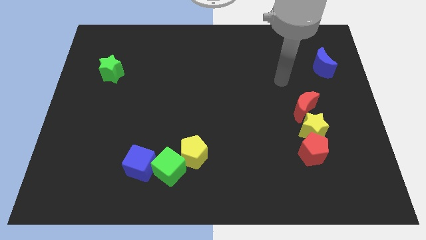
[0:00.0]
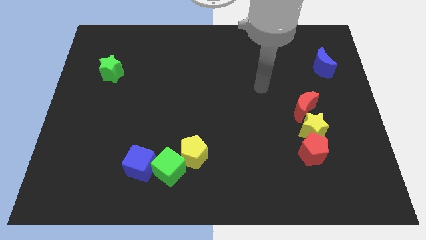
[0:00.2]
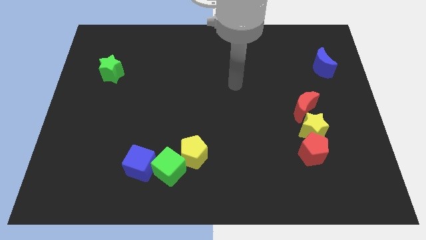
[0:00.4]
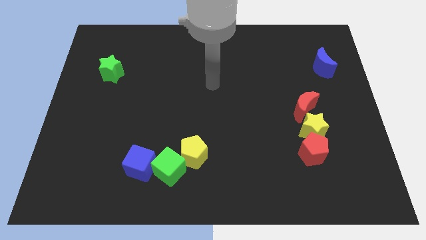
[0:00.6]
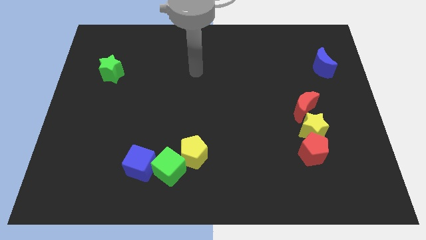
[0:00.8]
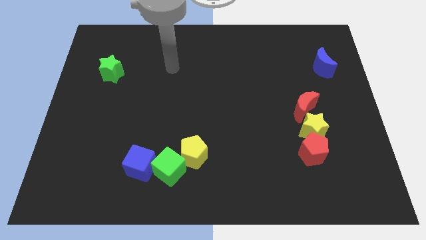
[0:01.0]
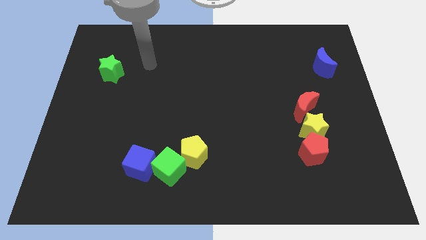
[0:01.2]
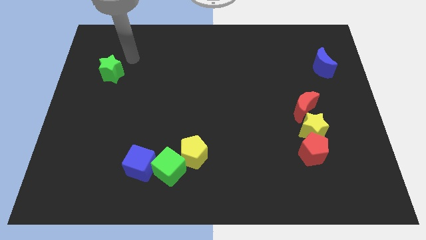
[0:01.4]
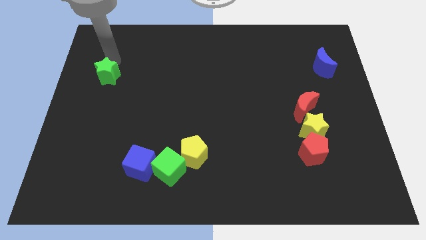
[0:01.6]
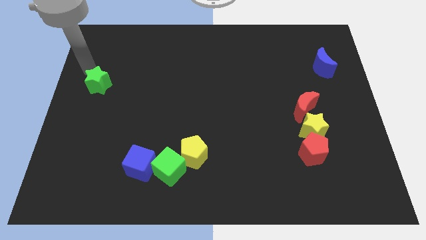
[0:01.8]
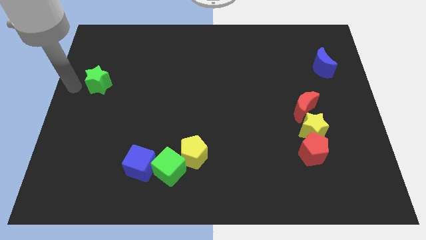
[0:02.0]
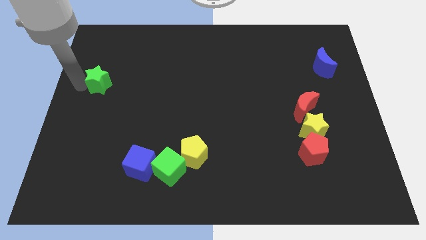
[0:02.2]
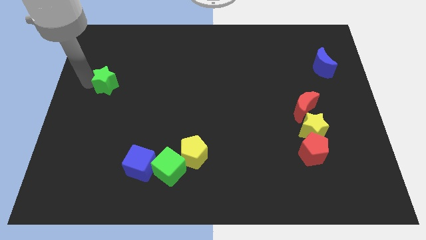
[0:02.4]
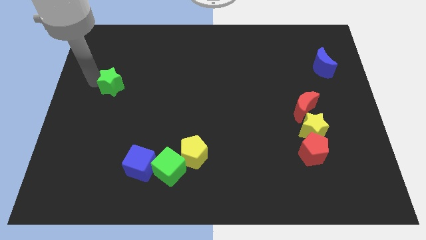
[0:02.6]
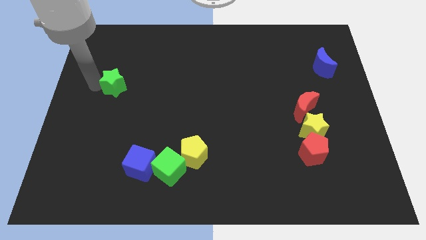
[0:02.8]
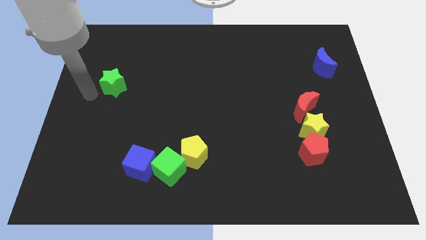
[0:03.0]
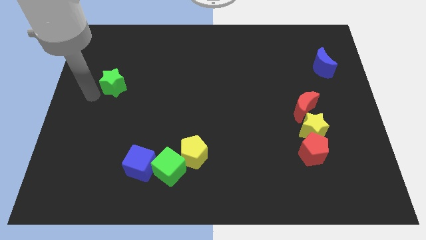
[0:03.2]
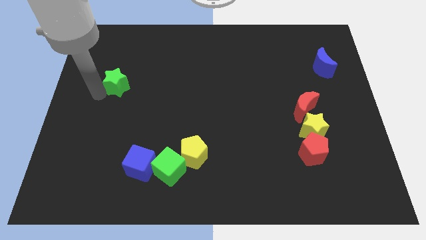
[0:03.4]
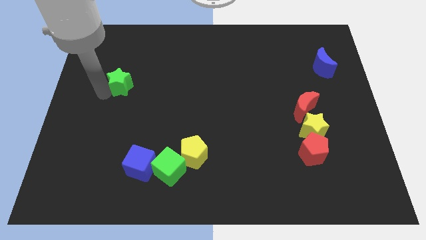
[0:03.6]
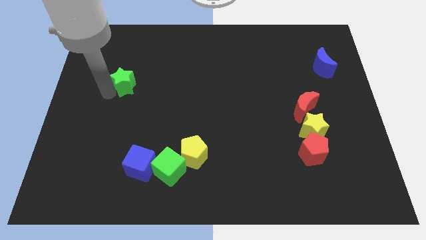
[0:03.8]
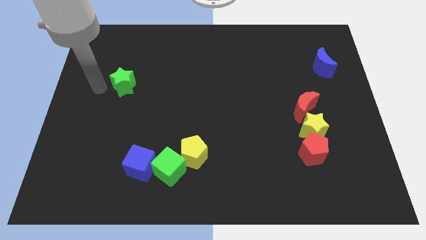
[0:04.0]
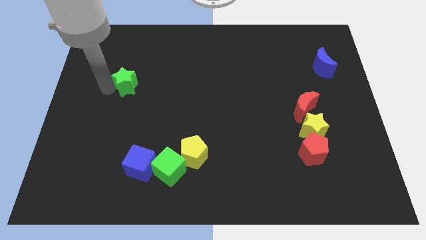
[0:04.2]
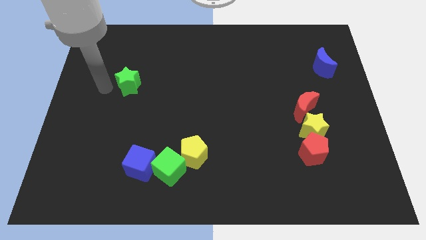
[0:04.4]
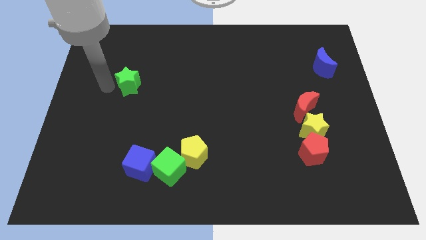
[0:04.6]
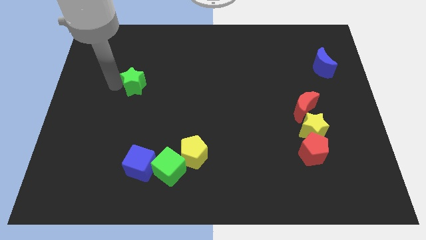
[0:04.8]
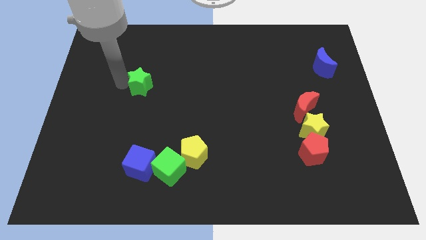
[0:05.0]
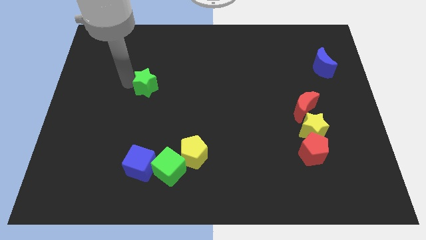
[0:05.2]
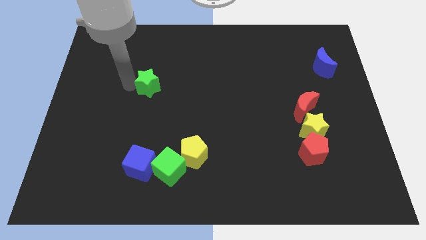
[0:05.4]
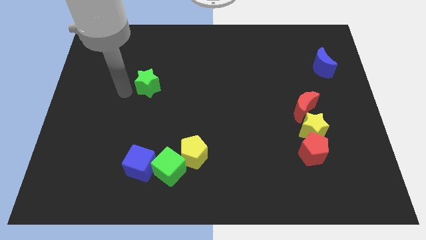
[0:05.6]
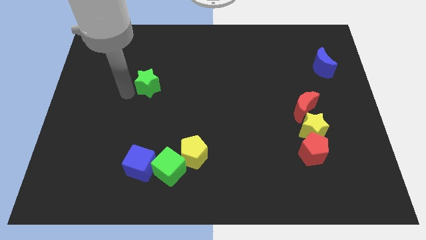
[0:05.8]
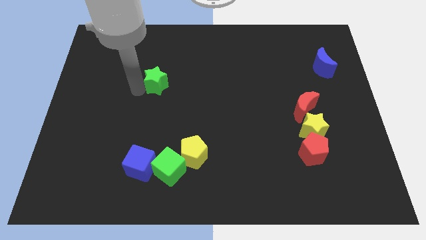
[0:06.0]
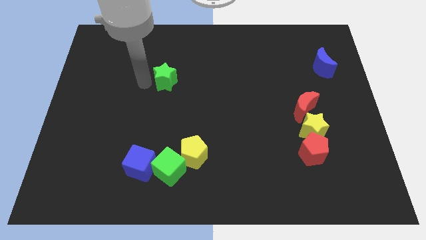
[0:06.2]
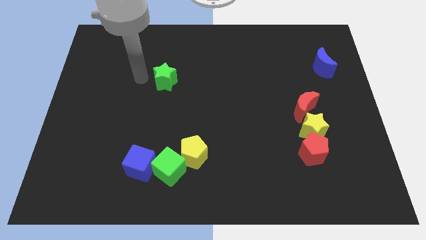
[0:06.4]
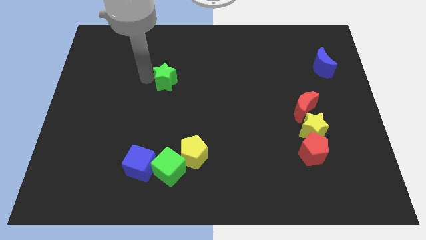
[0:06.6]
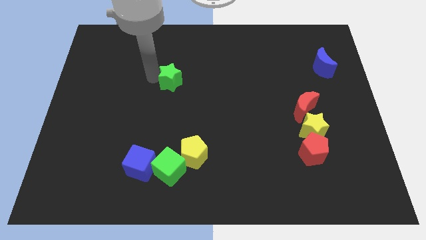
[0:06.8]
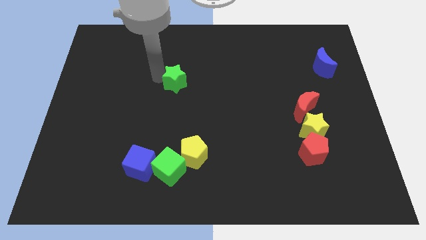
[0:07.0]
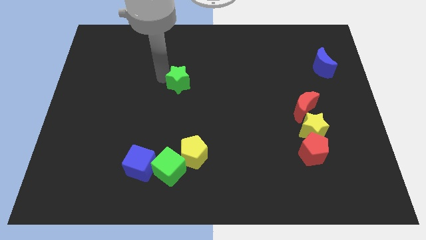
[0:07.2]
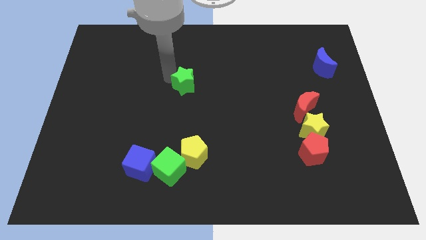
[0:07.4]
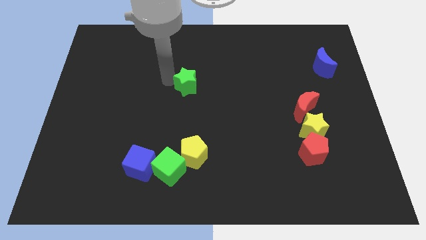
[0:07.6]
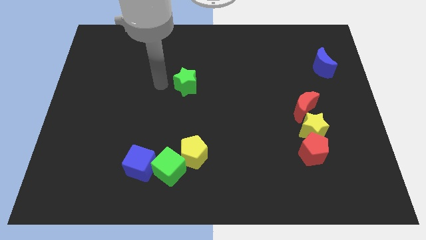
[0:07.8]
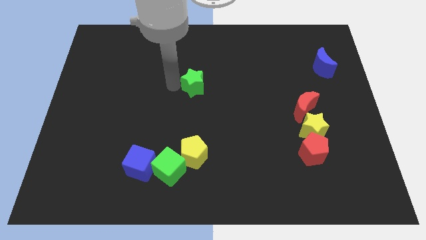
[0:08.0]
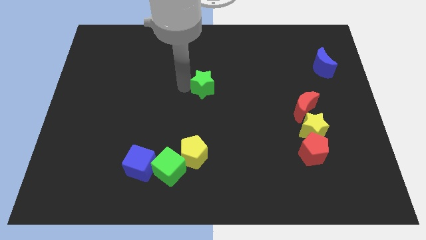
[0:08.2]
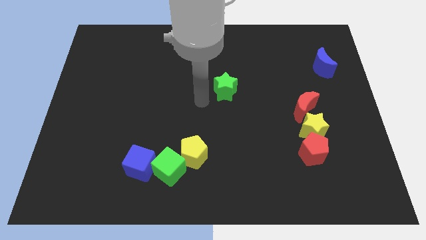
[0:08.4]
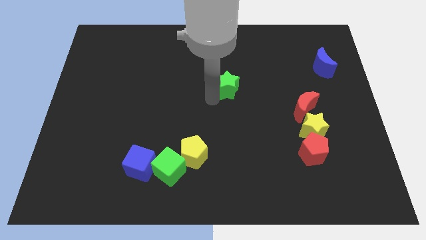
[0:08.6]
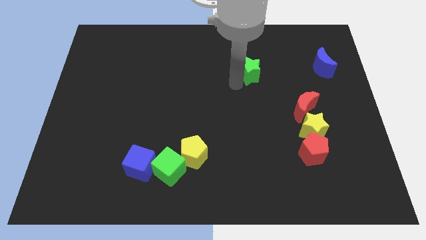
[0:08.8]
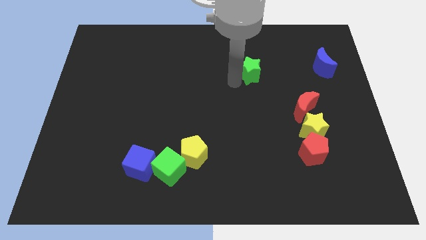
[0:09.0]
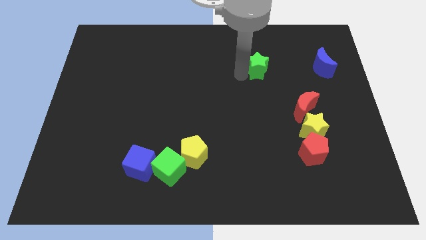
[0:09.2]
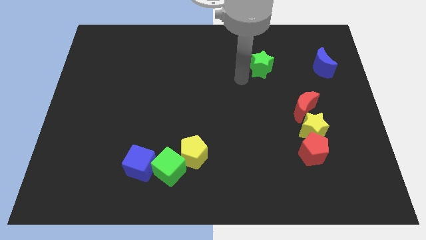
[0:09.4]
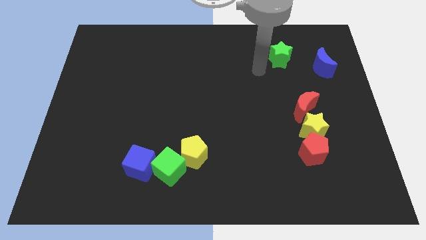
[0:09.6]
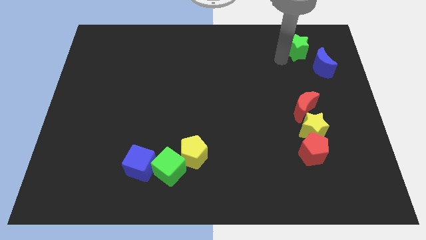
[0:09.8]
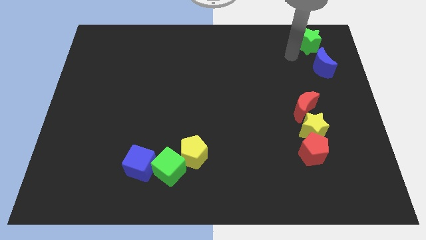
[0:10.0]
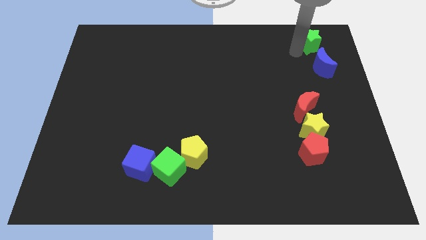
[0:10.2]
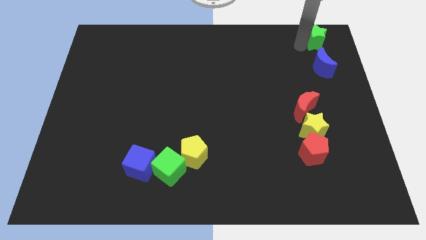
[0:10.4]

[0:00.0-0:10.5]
slide the green star to the top right of the board

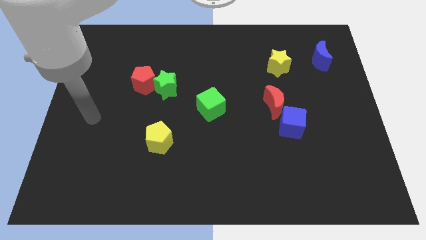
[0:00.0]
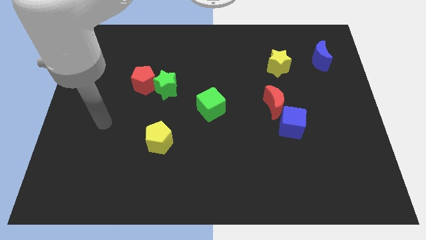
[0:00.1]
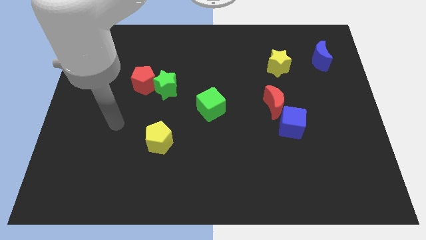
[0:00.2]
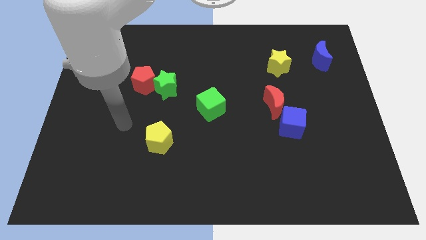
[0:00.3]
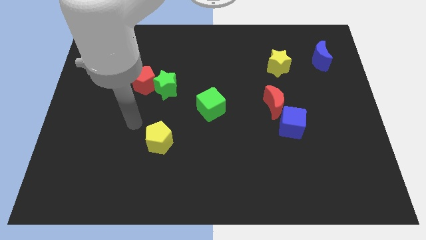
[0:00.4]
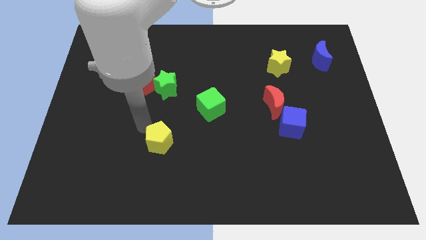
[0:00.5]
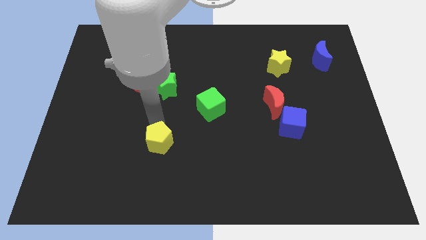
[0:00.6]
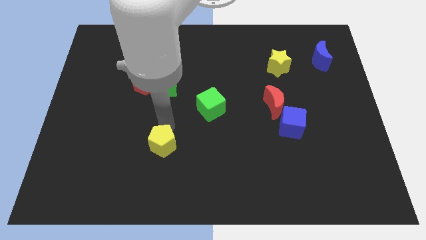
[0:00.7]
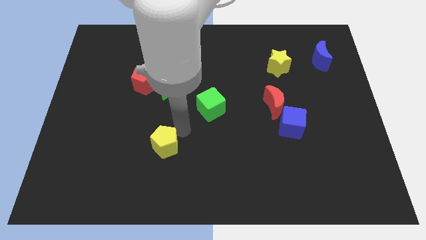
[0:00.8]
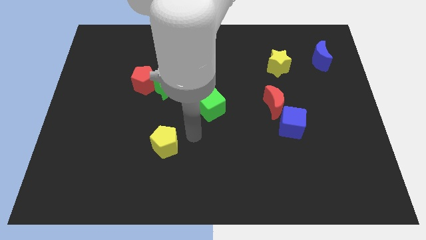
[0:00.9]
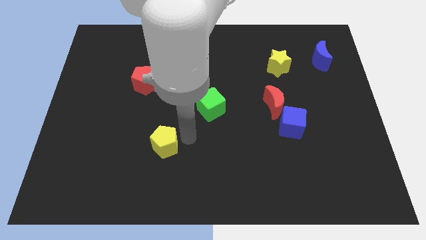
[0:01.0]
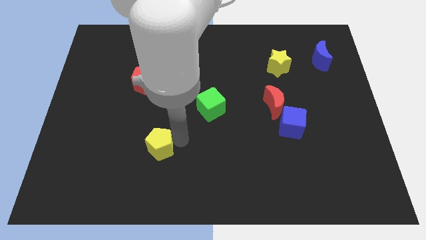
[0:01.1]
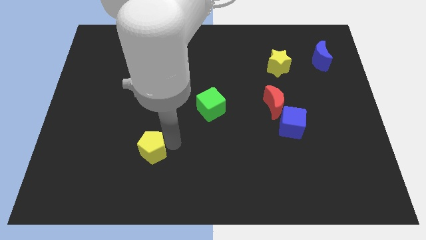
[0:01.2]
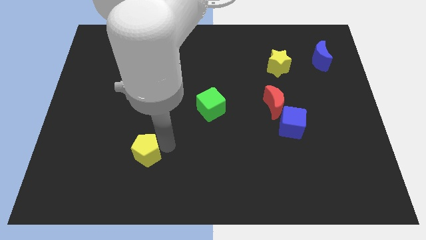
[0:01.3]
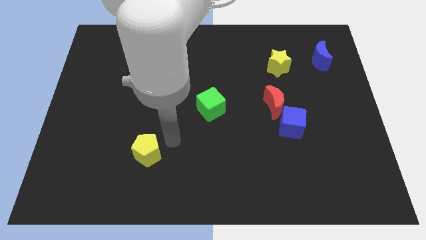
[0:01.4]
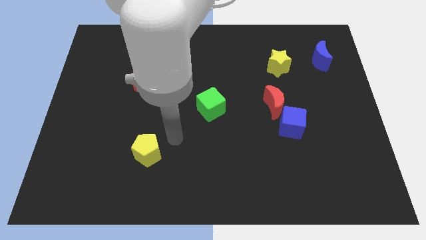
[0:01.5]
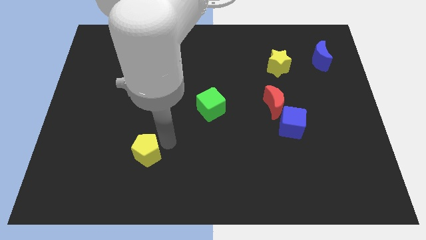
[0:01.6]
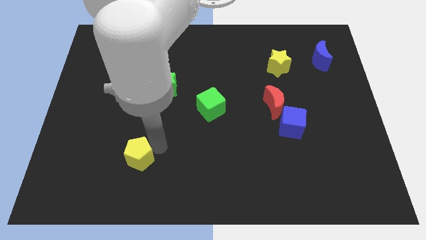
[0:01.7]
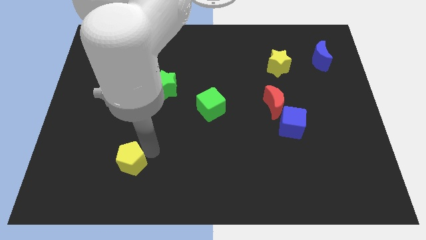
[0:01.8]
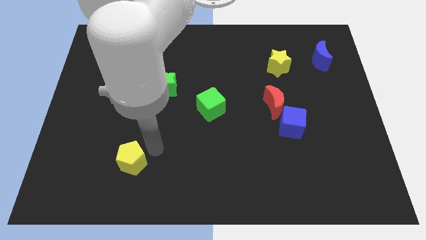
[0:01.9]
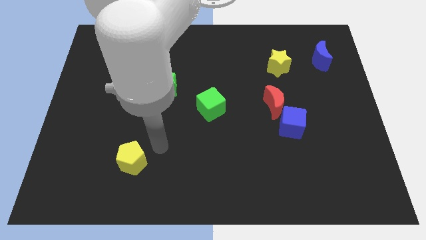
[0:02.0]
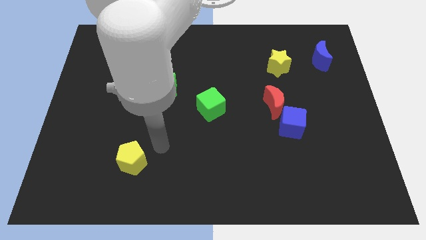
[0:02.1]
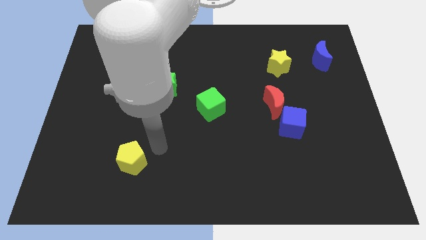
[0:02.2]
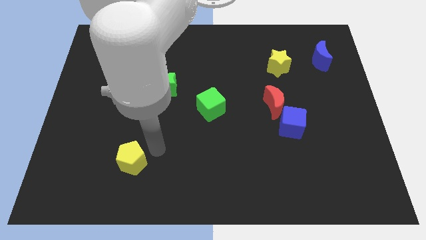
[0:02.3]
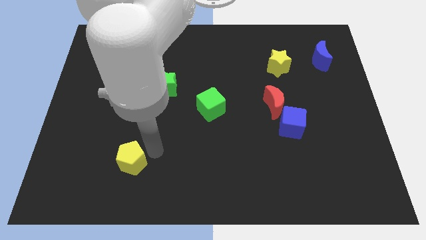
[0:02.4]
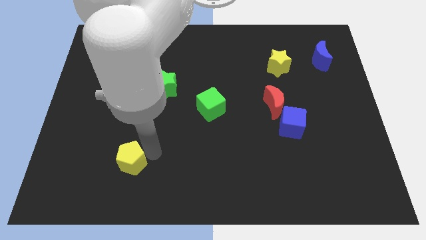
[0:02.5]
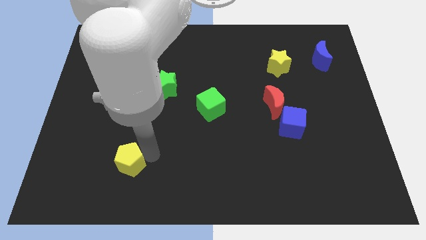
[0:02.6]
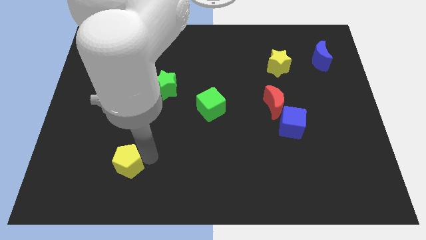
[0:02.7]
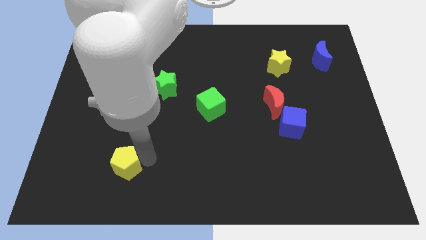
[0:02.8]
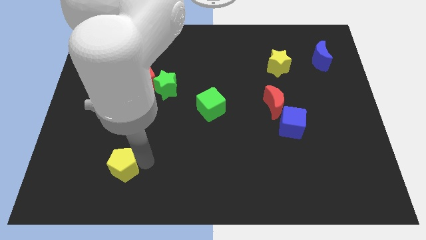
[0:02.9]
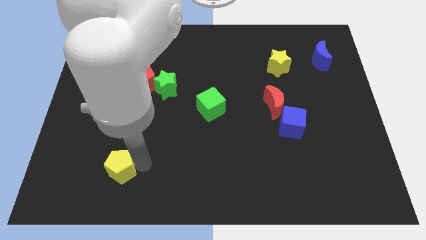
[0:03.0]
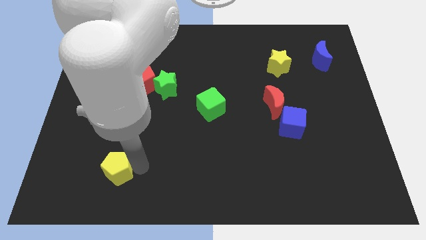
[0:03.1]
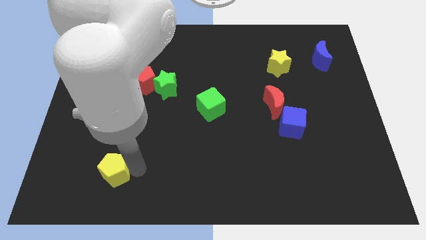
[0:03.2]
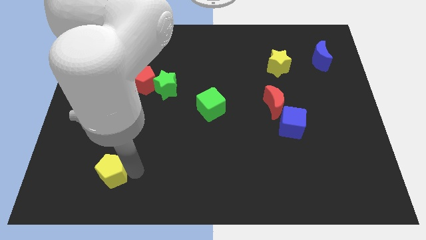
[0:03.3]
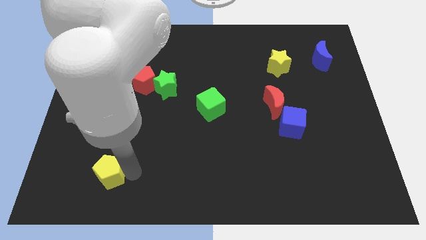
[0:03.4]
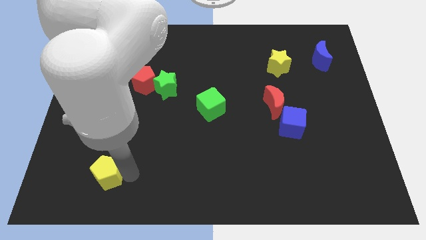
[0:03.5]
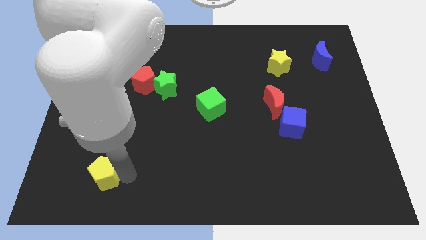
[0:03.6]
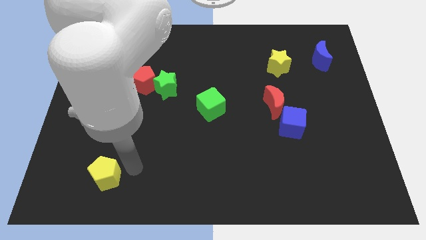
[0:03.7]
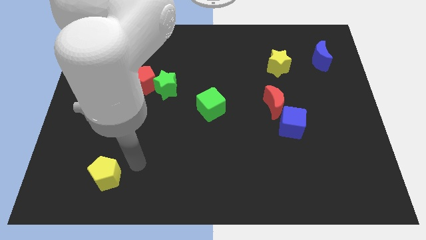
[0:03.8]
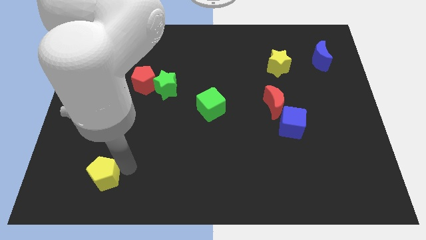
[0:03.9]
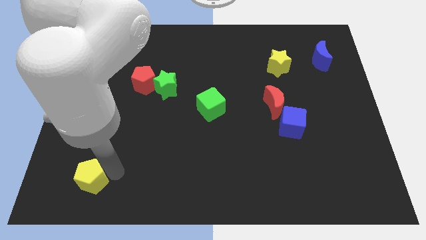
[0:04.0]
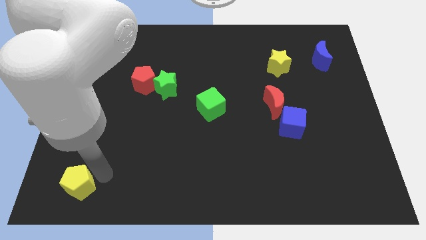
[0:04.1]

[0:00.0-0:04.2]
push the yellow pentagon to the bottom left corner
